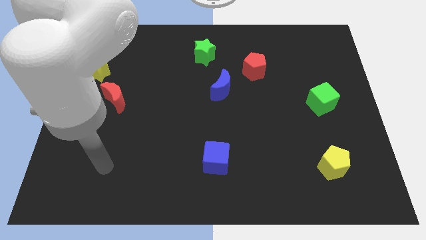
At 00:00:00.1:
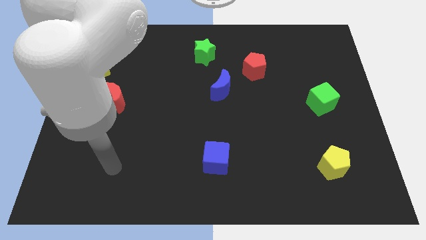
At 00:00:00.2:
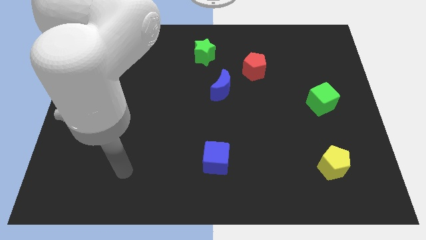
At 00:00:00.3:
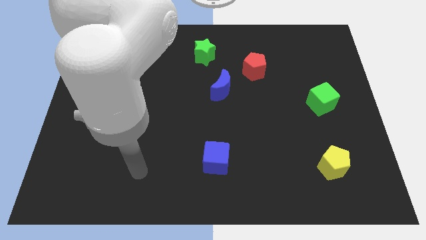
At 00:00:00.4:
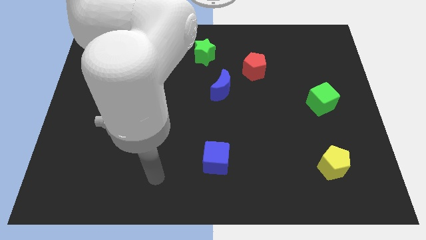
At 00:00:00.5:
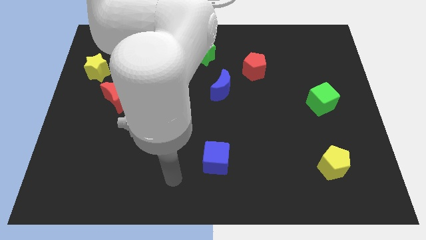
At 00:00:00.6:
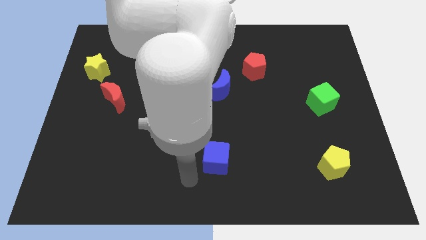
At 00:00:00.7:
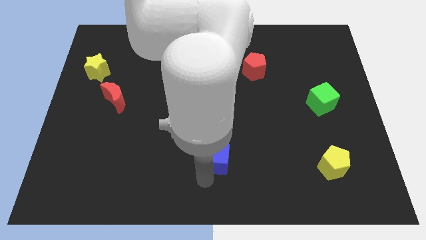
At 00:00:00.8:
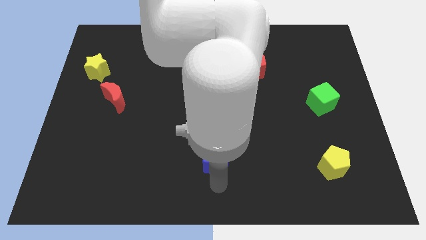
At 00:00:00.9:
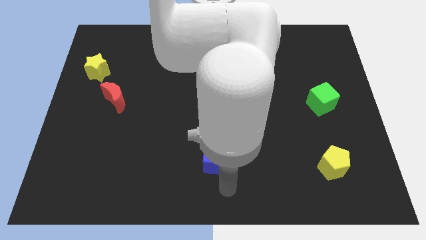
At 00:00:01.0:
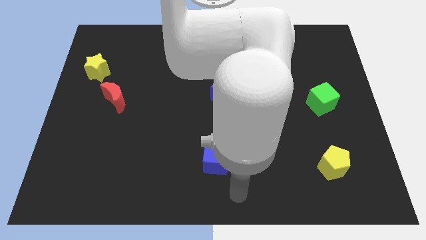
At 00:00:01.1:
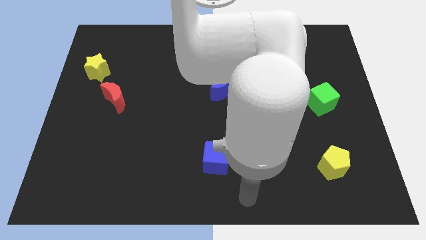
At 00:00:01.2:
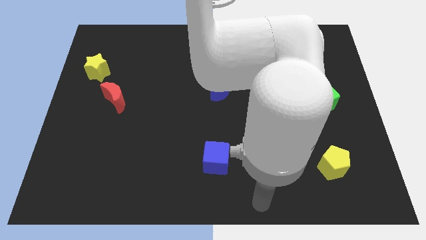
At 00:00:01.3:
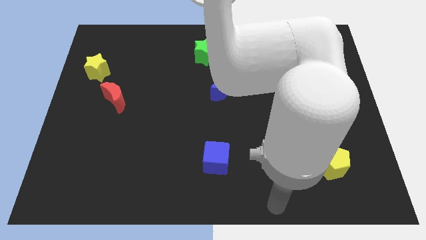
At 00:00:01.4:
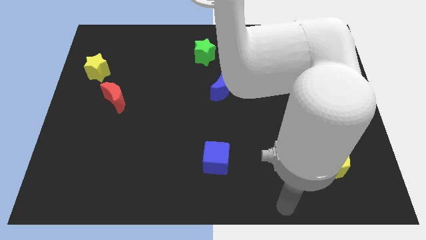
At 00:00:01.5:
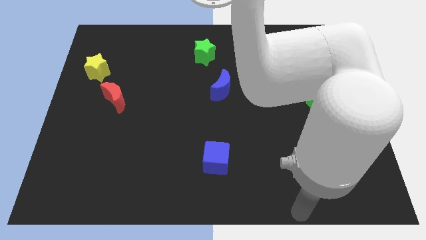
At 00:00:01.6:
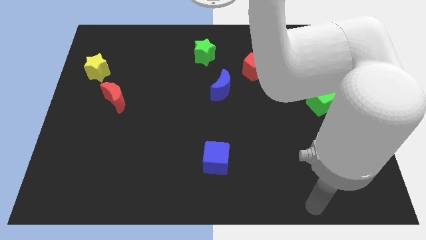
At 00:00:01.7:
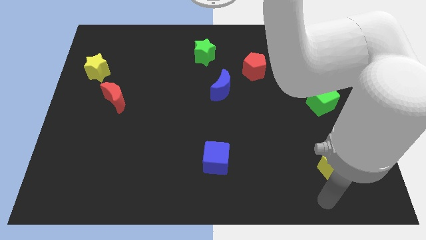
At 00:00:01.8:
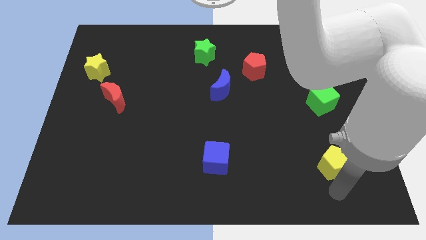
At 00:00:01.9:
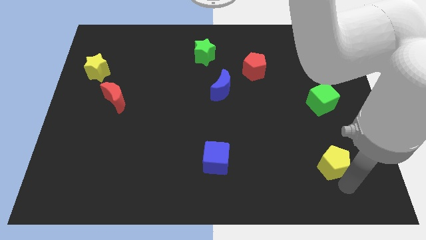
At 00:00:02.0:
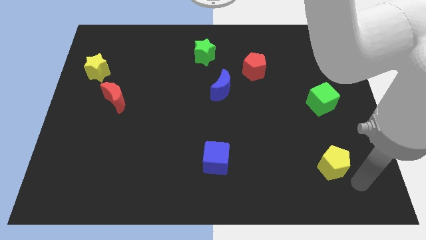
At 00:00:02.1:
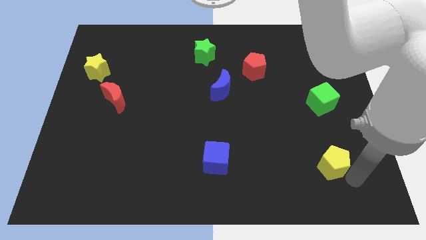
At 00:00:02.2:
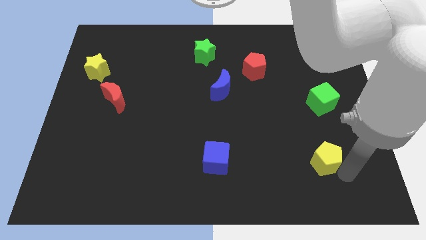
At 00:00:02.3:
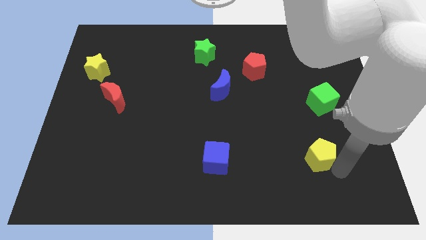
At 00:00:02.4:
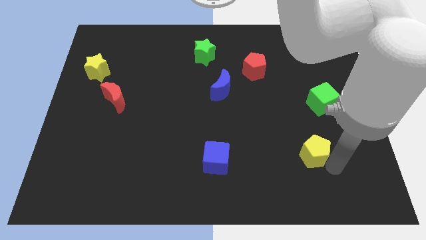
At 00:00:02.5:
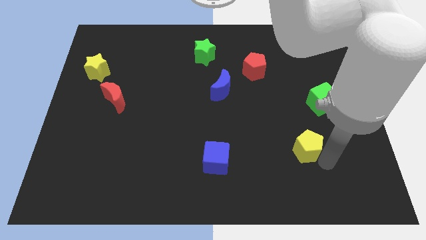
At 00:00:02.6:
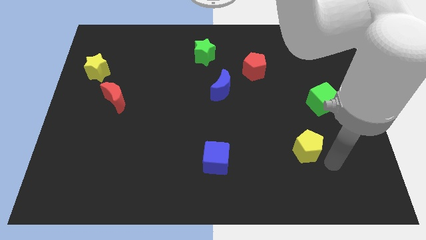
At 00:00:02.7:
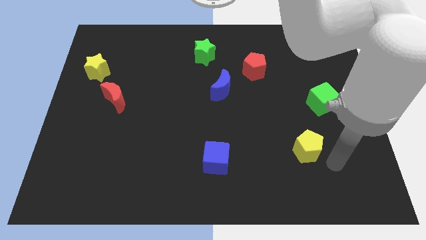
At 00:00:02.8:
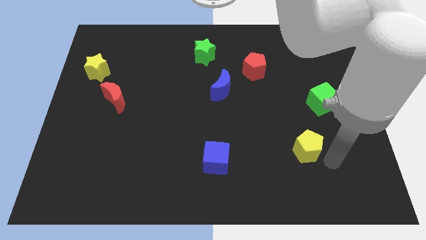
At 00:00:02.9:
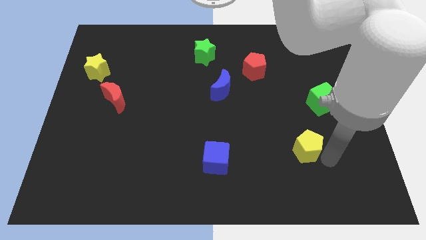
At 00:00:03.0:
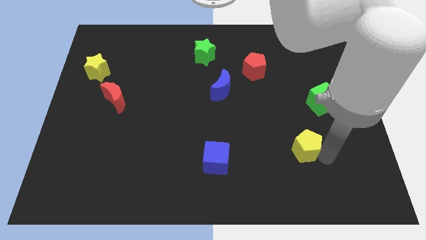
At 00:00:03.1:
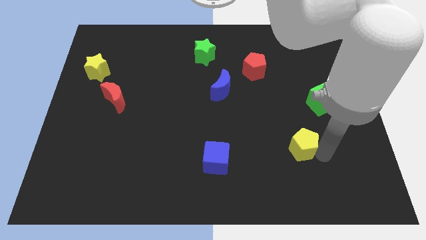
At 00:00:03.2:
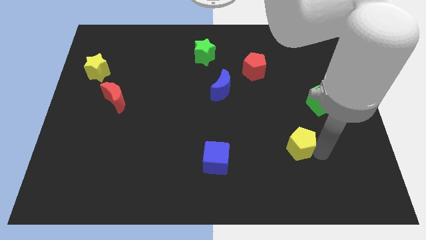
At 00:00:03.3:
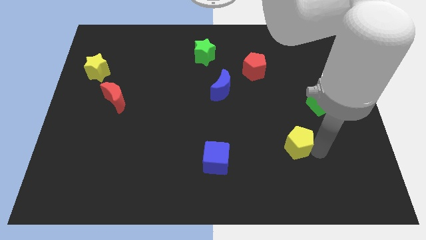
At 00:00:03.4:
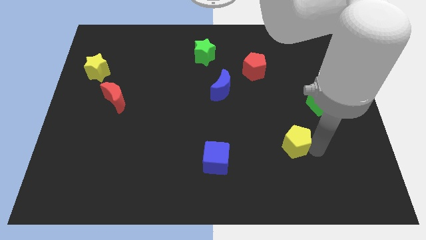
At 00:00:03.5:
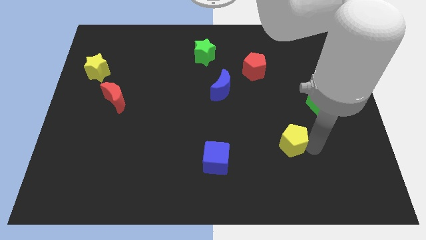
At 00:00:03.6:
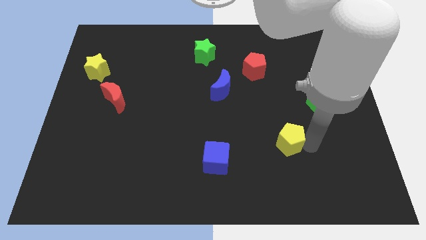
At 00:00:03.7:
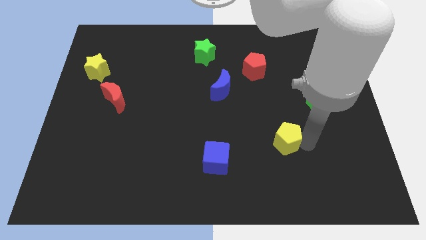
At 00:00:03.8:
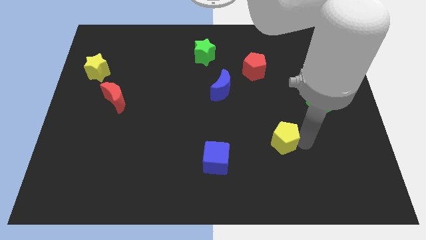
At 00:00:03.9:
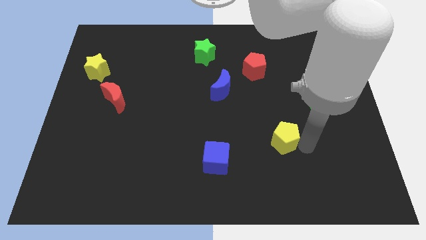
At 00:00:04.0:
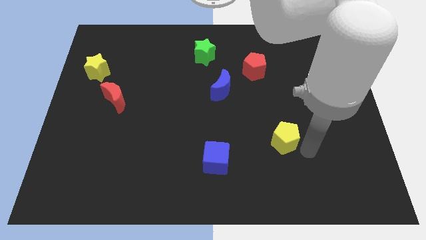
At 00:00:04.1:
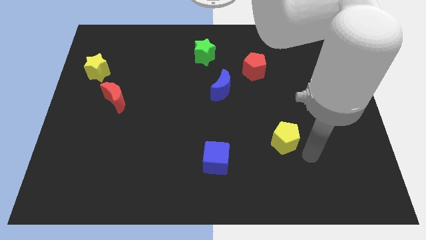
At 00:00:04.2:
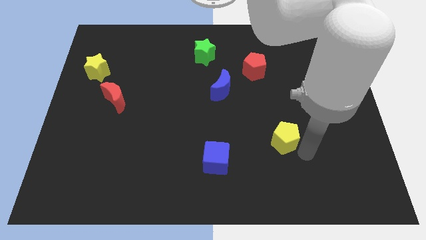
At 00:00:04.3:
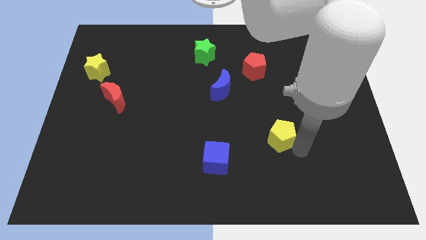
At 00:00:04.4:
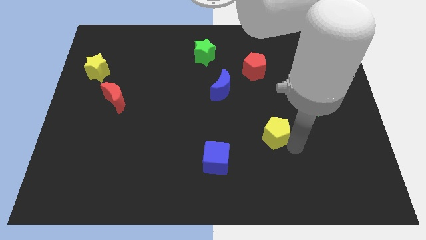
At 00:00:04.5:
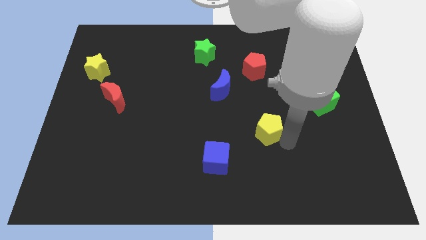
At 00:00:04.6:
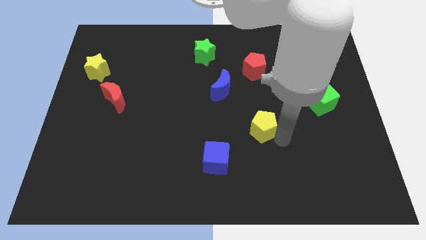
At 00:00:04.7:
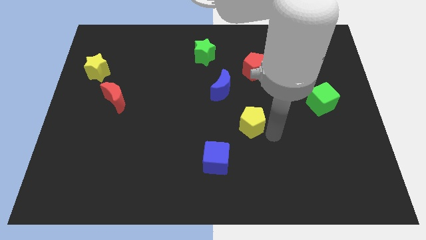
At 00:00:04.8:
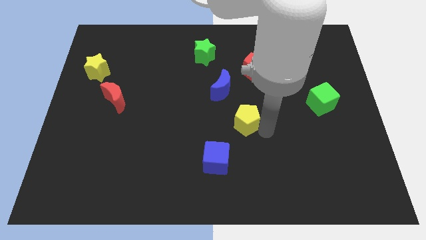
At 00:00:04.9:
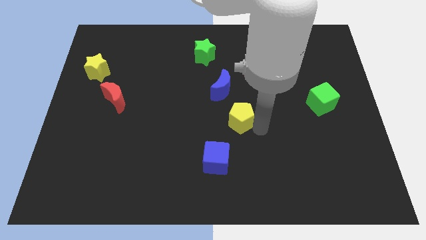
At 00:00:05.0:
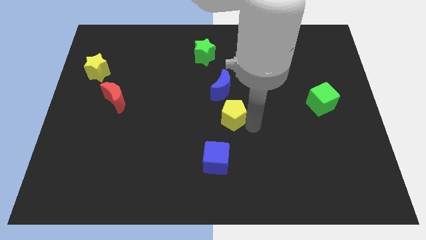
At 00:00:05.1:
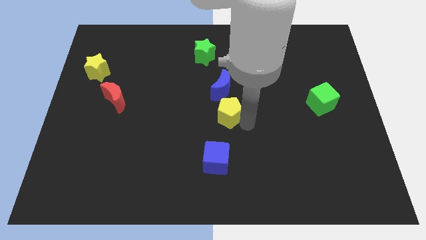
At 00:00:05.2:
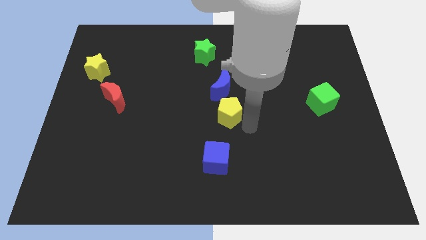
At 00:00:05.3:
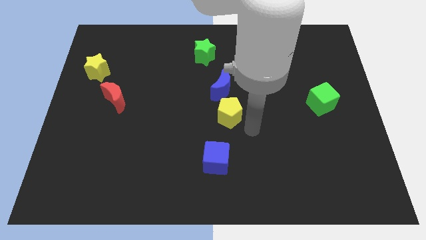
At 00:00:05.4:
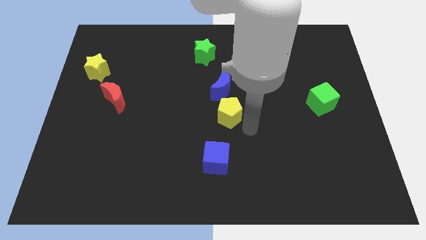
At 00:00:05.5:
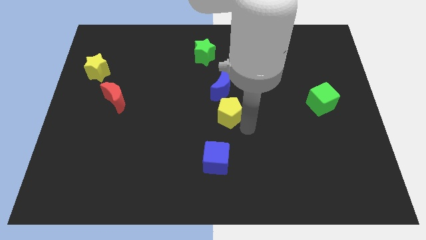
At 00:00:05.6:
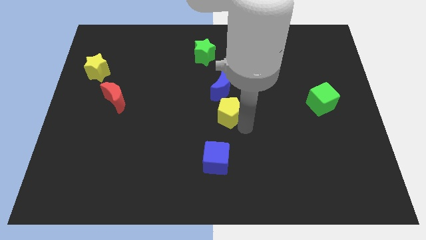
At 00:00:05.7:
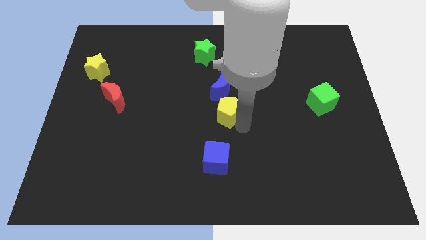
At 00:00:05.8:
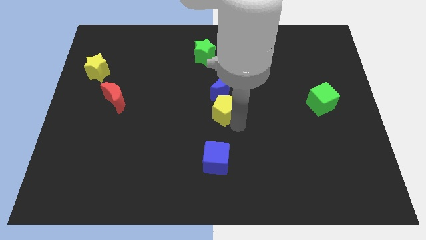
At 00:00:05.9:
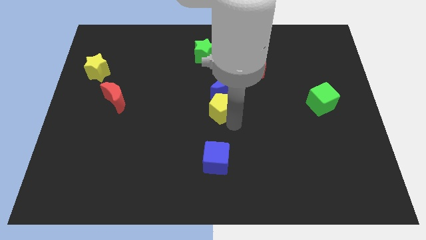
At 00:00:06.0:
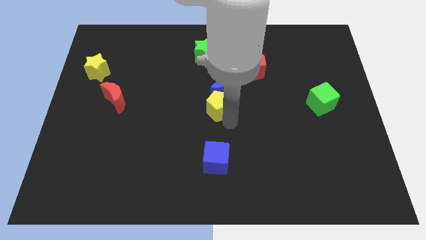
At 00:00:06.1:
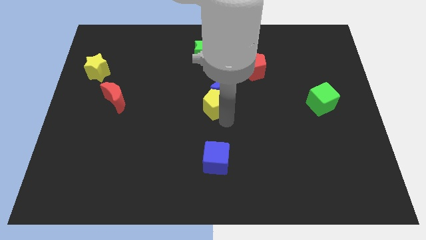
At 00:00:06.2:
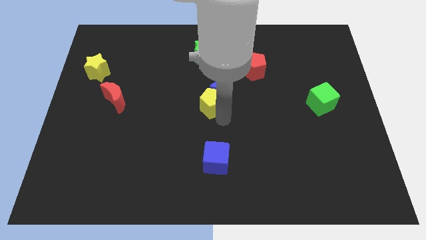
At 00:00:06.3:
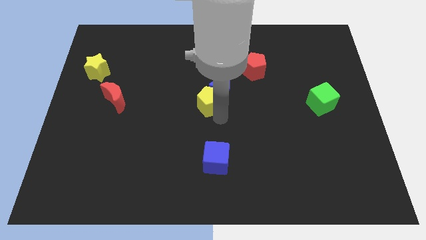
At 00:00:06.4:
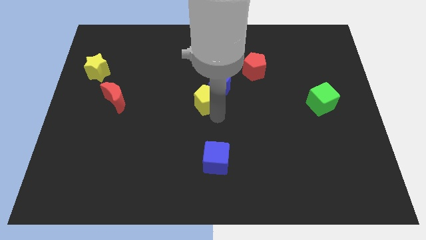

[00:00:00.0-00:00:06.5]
push the yellow pentagon to the bottom side of the green star

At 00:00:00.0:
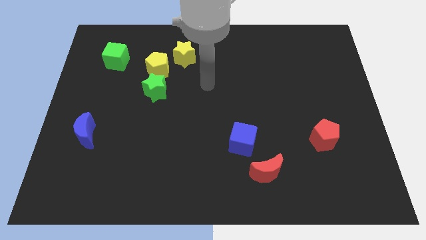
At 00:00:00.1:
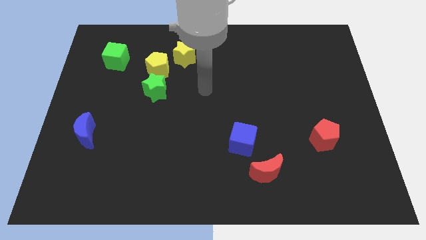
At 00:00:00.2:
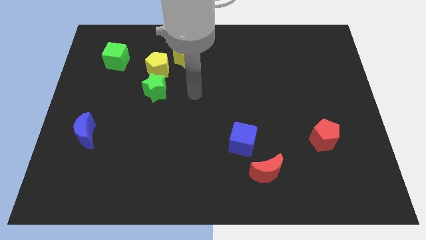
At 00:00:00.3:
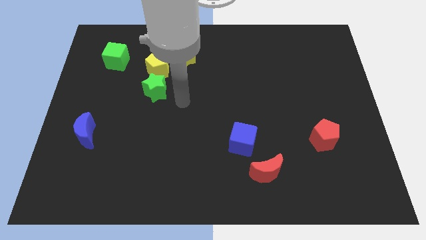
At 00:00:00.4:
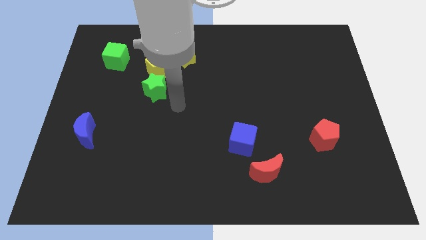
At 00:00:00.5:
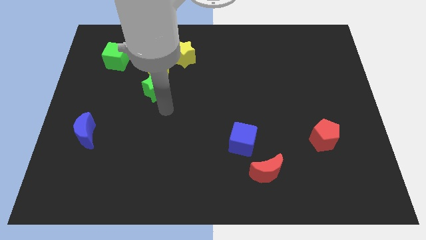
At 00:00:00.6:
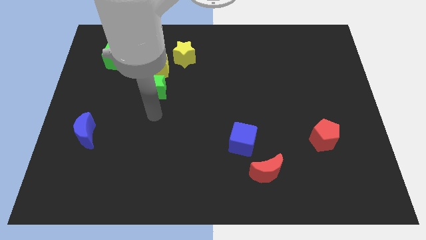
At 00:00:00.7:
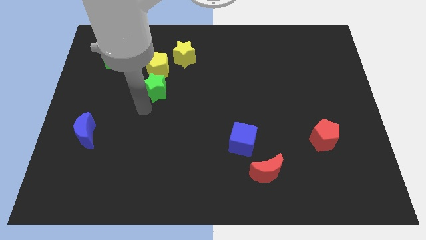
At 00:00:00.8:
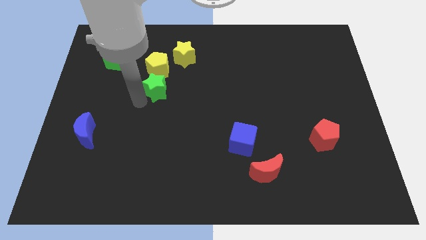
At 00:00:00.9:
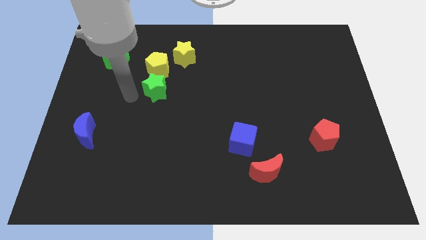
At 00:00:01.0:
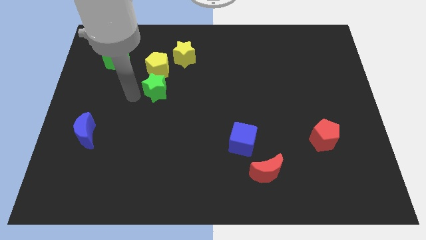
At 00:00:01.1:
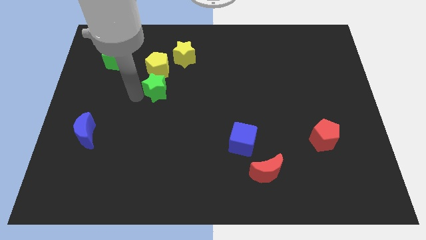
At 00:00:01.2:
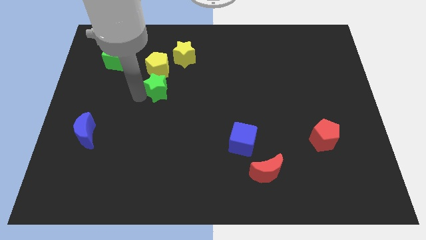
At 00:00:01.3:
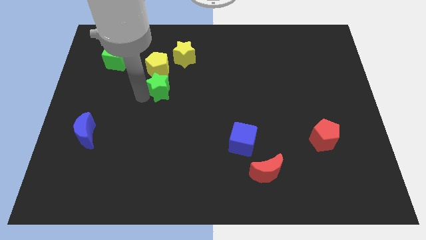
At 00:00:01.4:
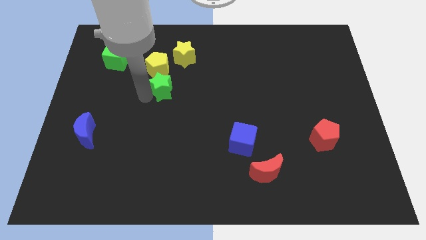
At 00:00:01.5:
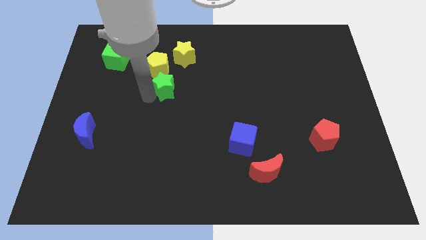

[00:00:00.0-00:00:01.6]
slide the green star below the yellow star
